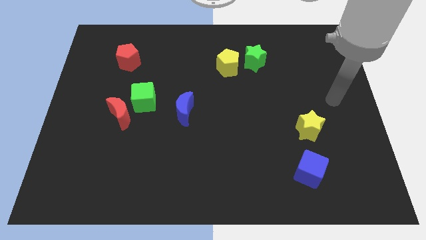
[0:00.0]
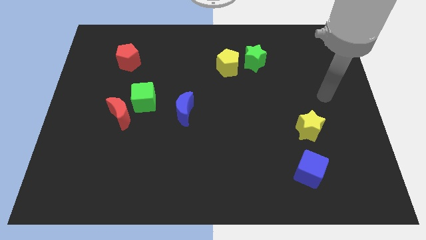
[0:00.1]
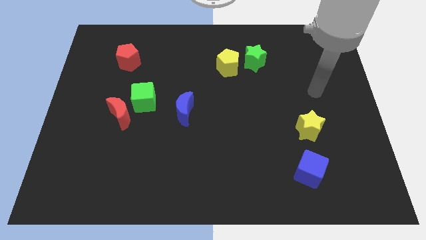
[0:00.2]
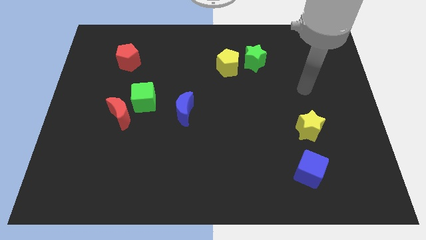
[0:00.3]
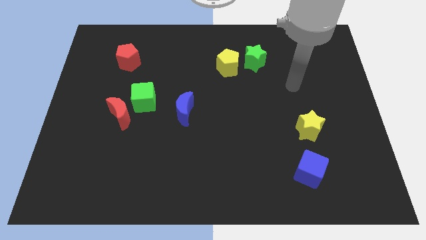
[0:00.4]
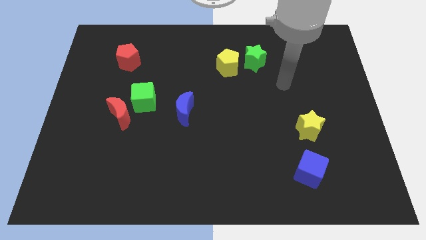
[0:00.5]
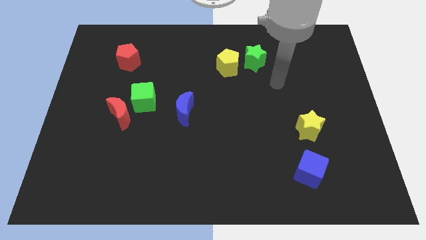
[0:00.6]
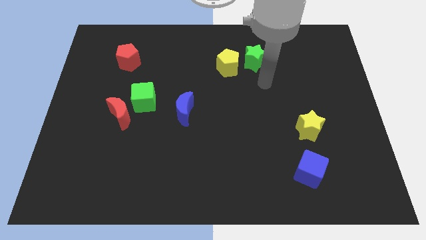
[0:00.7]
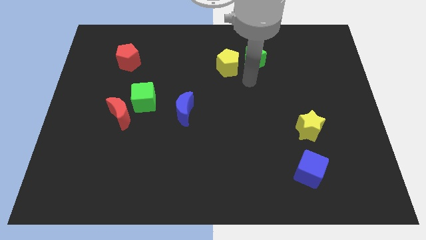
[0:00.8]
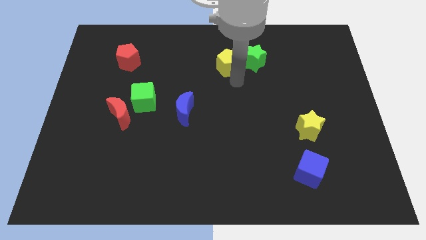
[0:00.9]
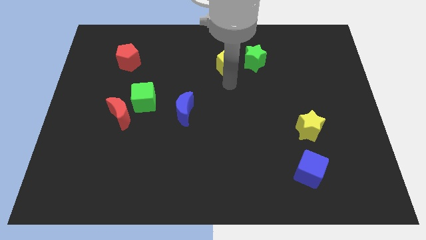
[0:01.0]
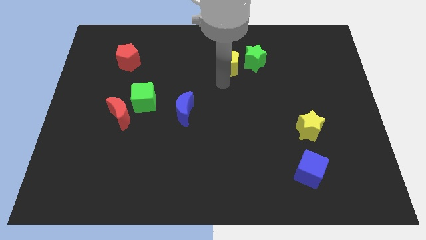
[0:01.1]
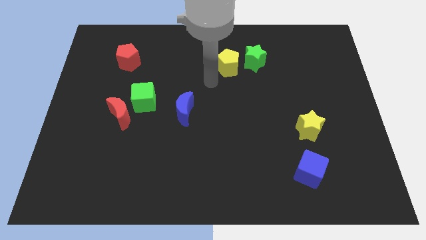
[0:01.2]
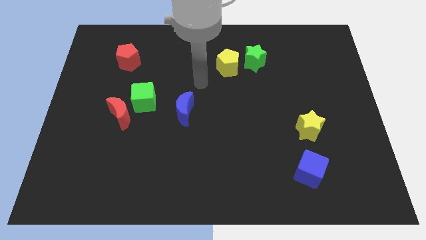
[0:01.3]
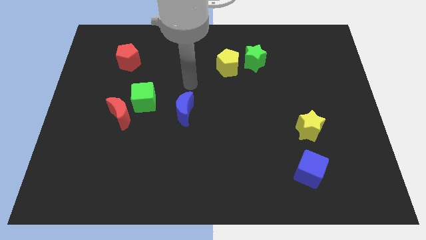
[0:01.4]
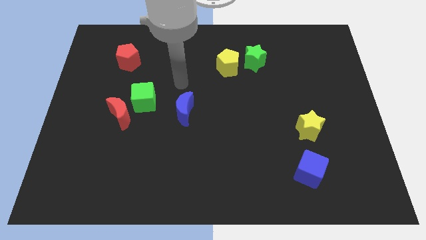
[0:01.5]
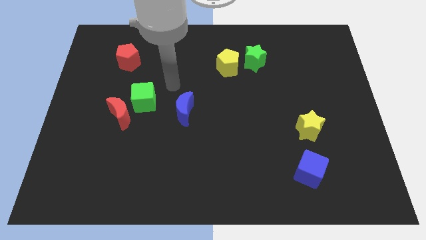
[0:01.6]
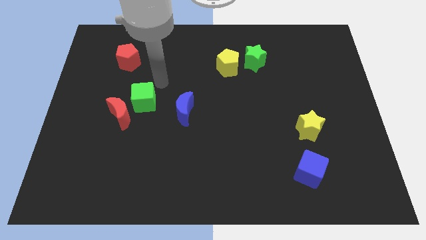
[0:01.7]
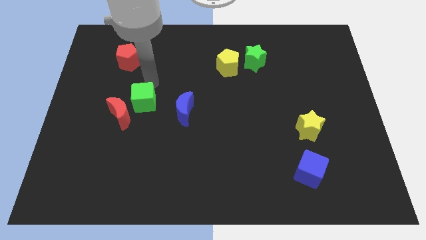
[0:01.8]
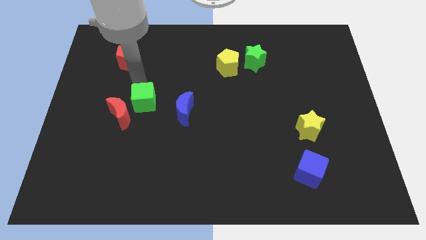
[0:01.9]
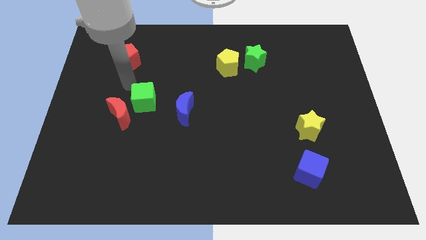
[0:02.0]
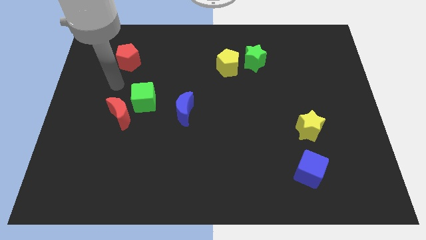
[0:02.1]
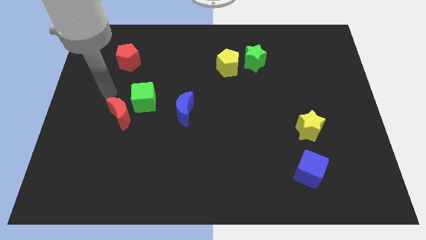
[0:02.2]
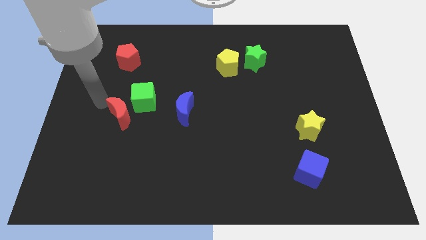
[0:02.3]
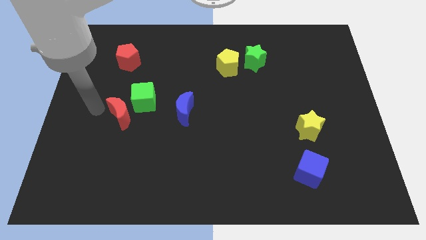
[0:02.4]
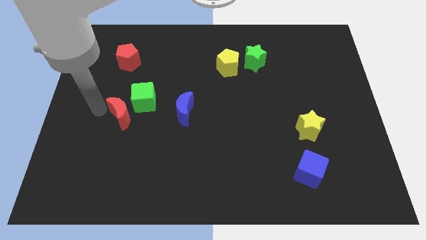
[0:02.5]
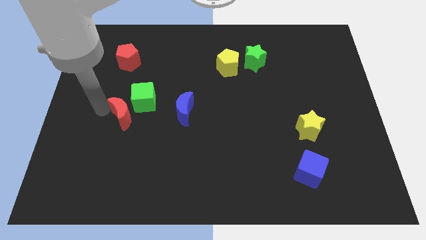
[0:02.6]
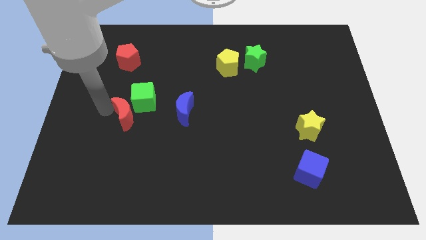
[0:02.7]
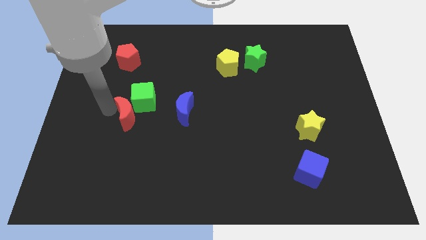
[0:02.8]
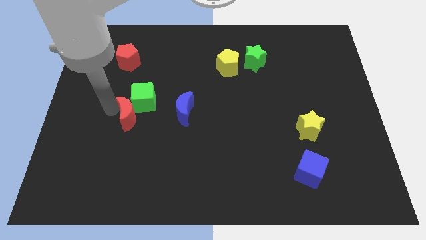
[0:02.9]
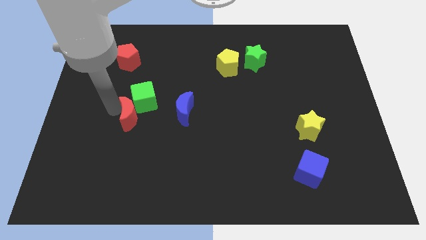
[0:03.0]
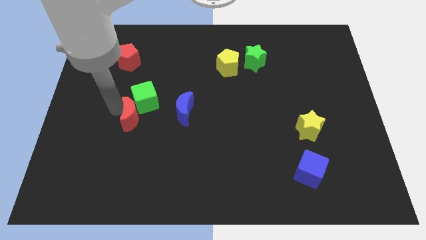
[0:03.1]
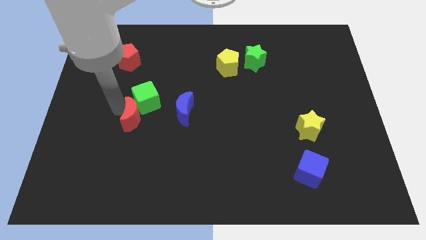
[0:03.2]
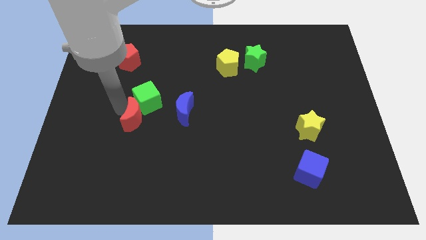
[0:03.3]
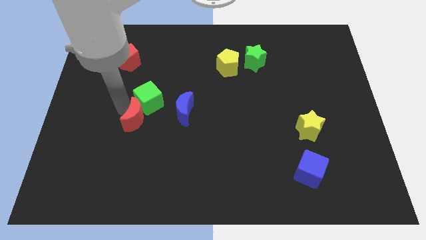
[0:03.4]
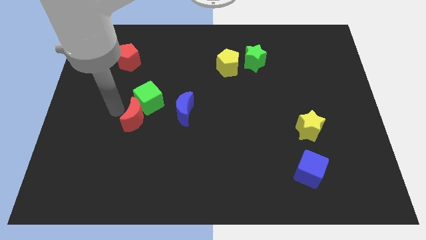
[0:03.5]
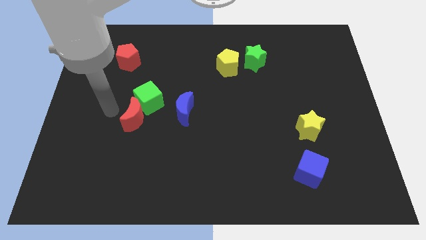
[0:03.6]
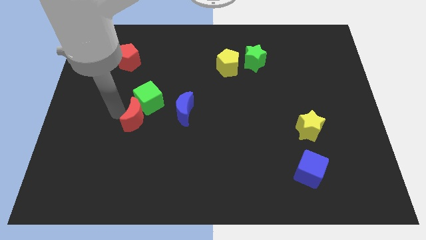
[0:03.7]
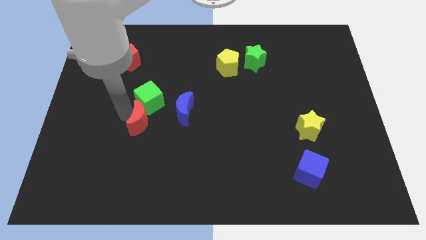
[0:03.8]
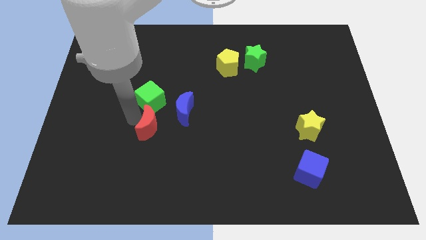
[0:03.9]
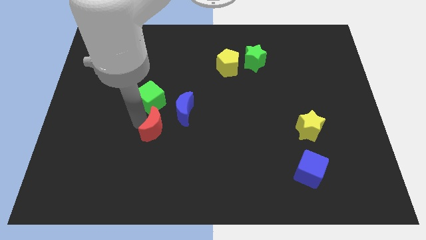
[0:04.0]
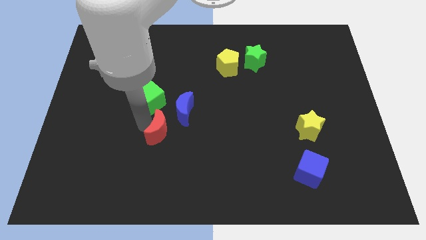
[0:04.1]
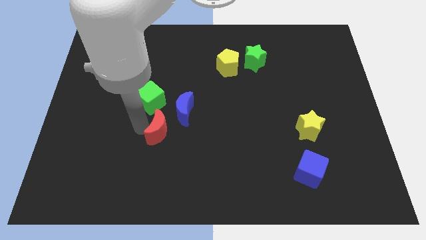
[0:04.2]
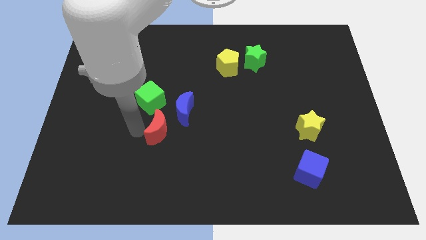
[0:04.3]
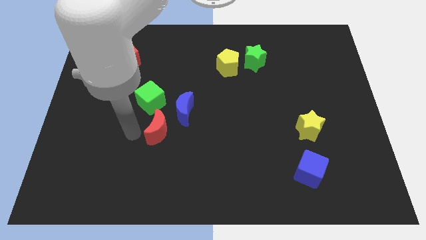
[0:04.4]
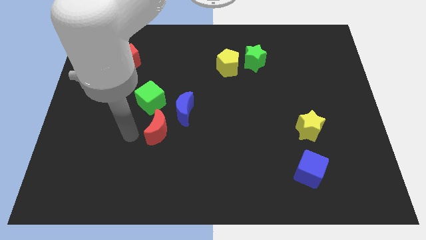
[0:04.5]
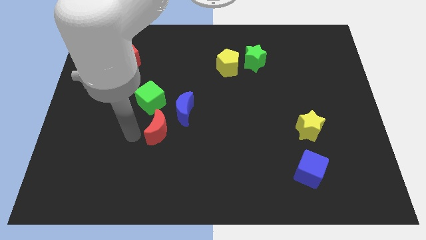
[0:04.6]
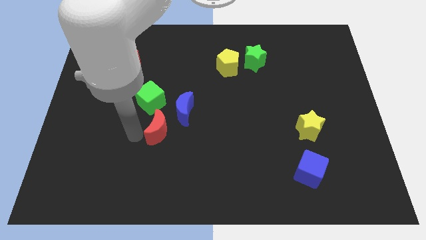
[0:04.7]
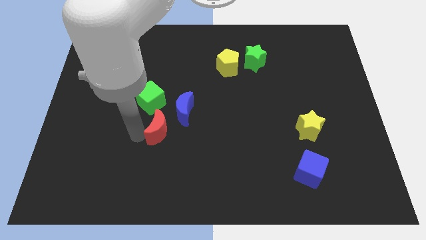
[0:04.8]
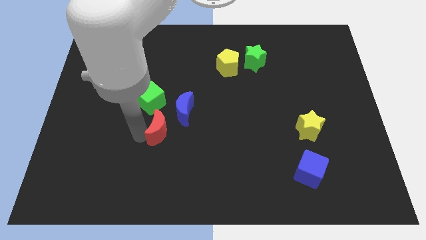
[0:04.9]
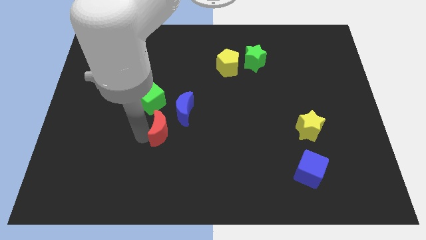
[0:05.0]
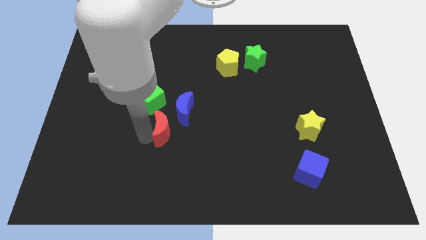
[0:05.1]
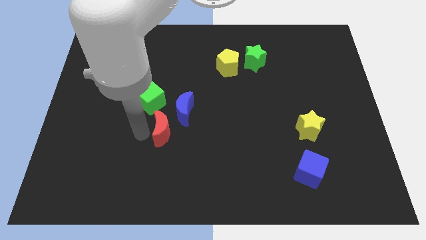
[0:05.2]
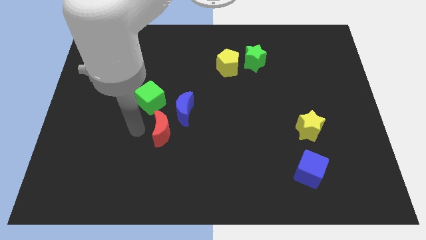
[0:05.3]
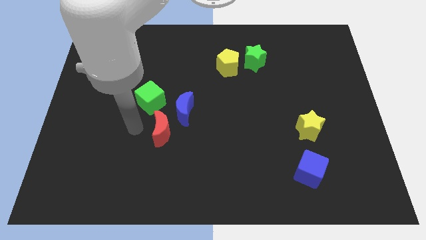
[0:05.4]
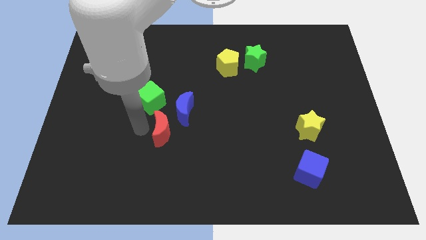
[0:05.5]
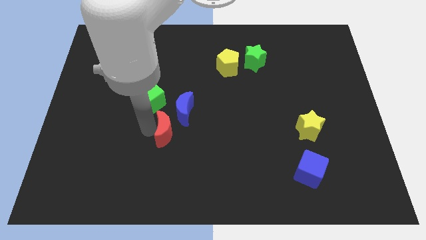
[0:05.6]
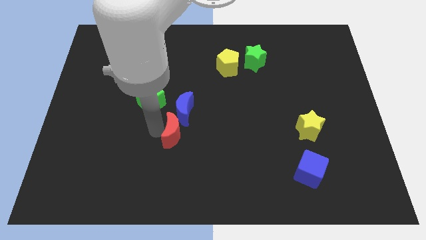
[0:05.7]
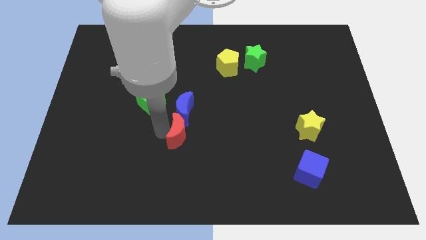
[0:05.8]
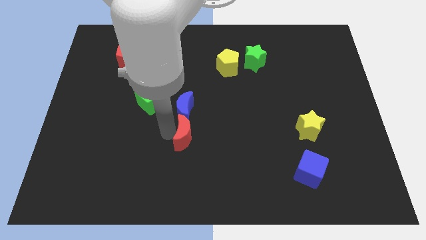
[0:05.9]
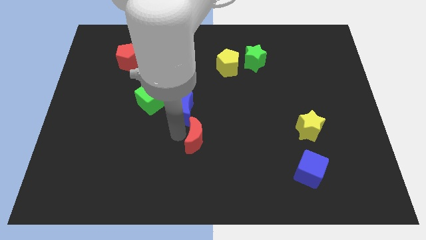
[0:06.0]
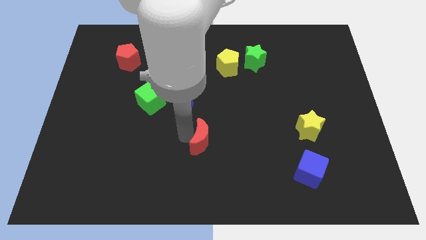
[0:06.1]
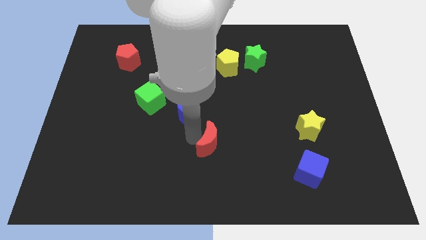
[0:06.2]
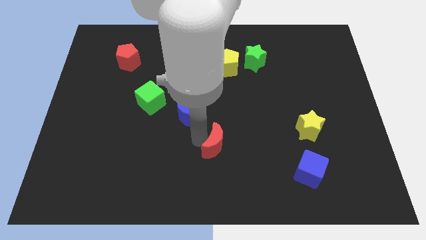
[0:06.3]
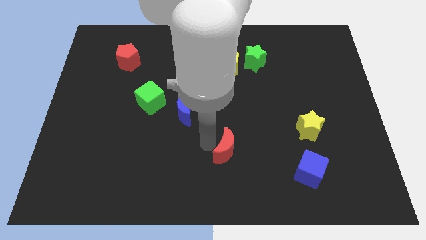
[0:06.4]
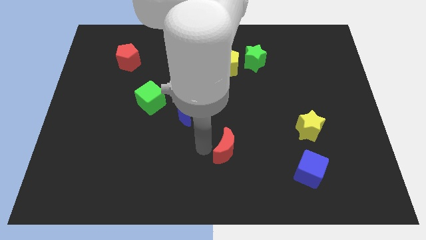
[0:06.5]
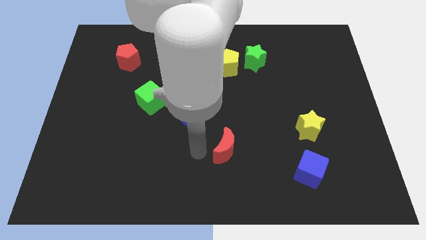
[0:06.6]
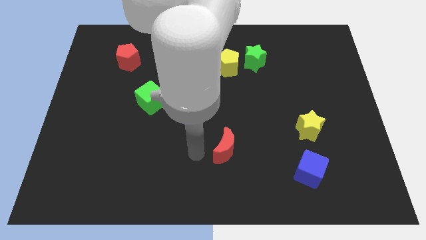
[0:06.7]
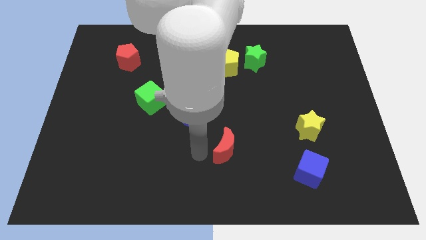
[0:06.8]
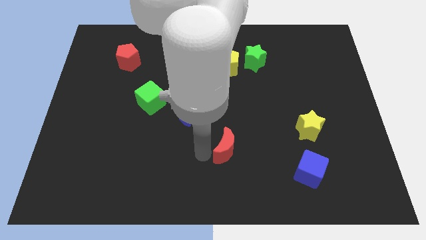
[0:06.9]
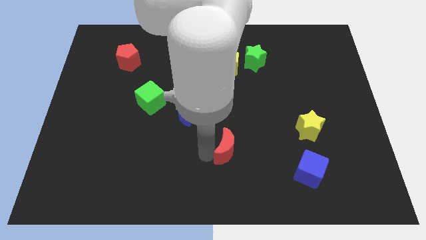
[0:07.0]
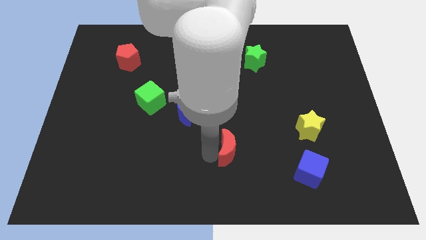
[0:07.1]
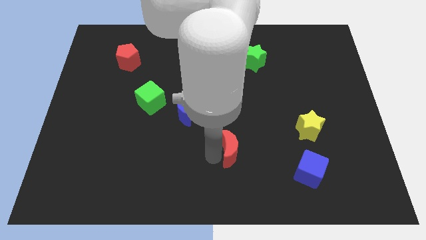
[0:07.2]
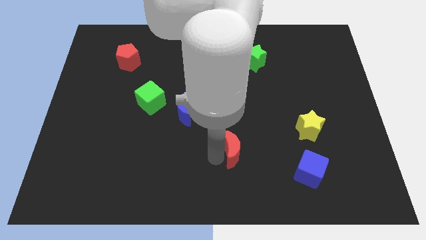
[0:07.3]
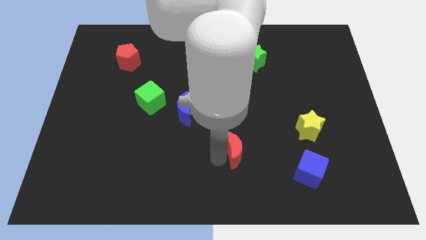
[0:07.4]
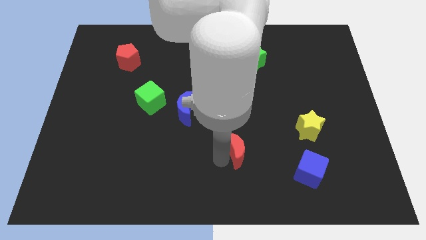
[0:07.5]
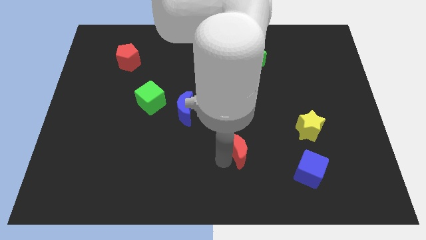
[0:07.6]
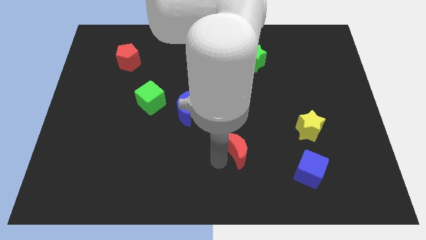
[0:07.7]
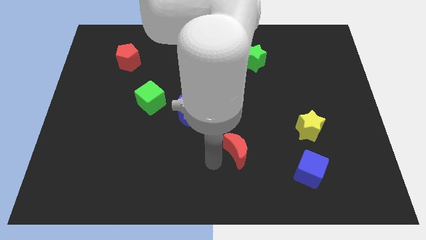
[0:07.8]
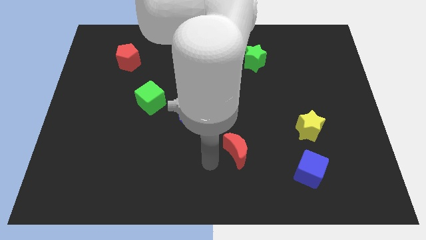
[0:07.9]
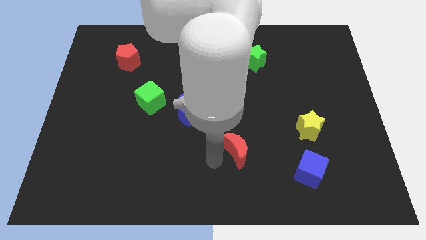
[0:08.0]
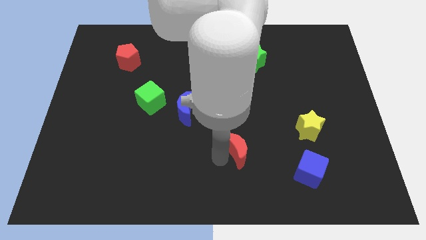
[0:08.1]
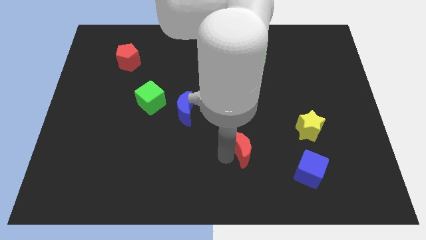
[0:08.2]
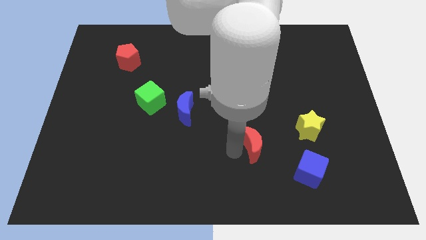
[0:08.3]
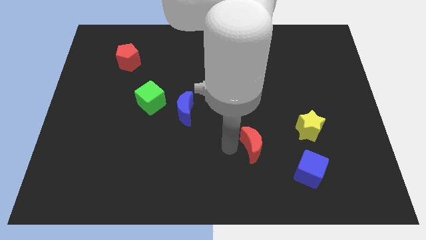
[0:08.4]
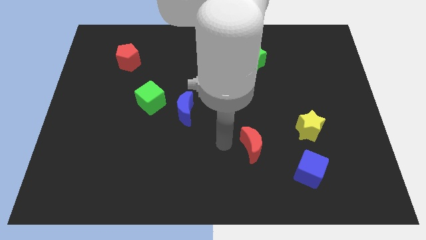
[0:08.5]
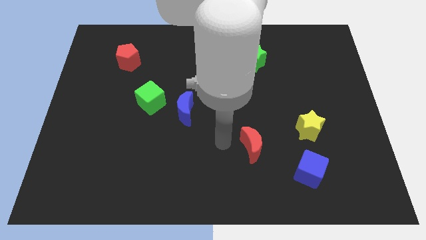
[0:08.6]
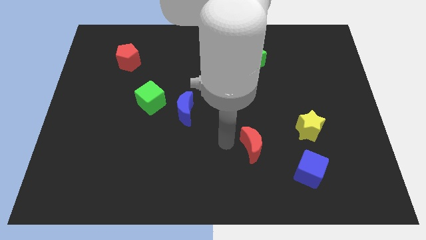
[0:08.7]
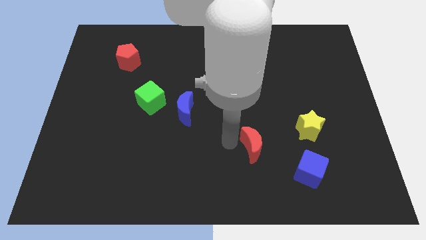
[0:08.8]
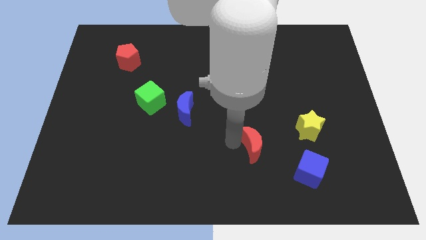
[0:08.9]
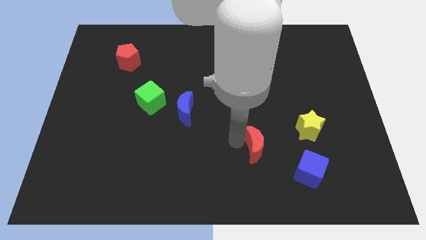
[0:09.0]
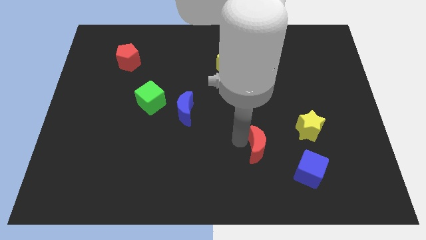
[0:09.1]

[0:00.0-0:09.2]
push the red moon diagonally up and to the left of the blue cube
